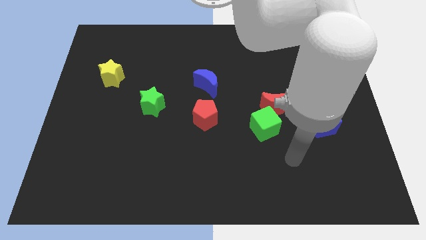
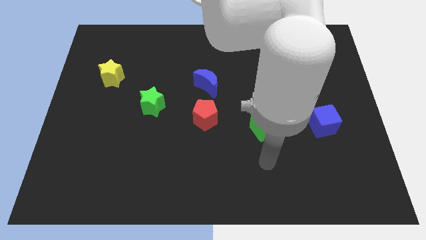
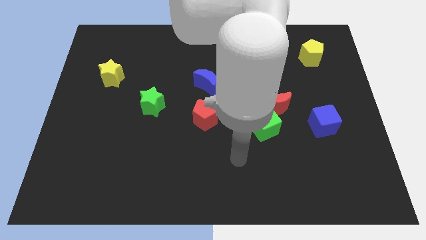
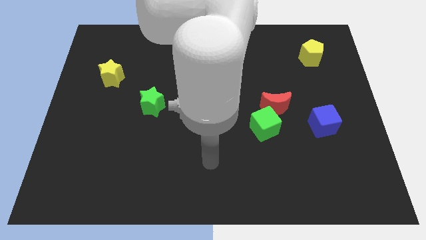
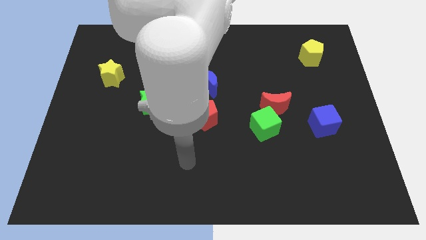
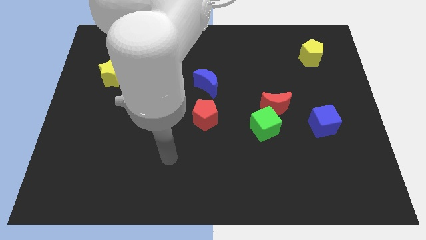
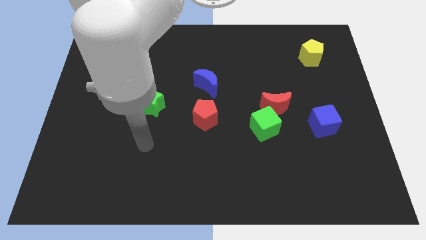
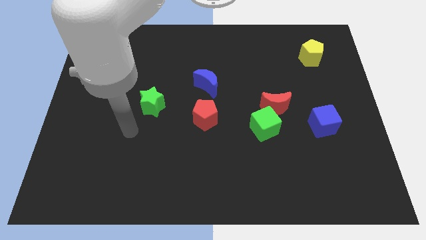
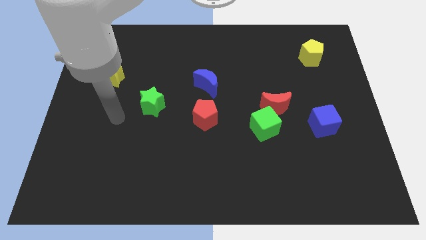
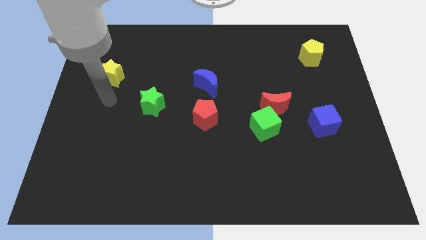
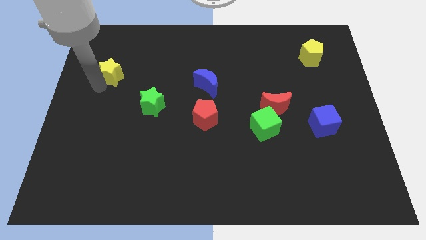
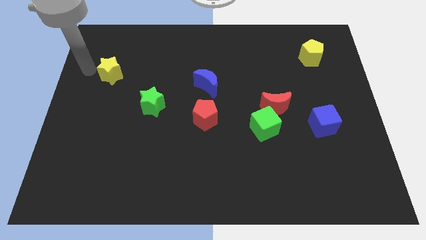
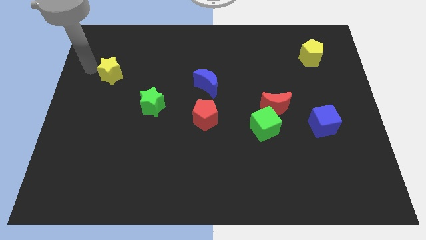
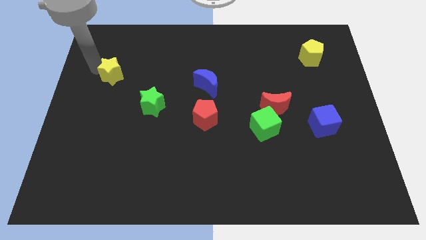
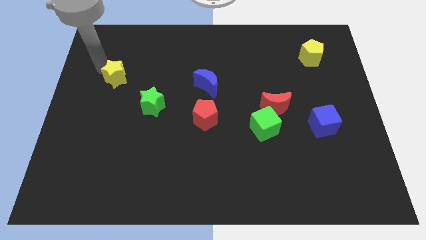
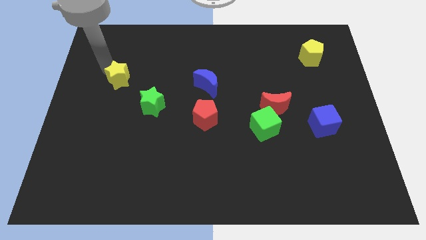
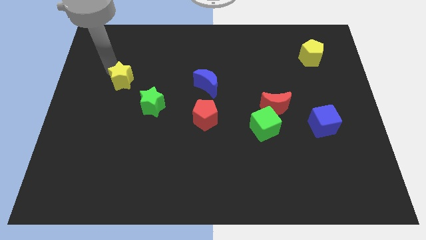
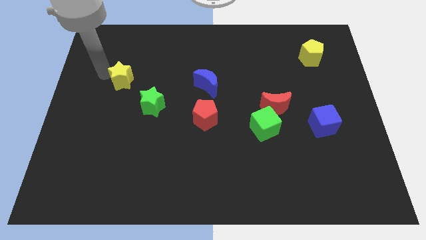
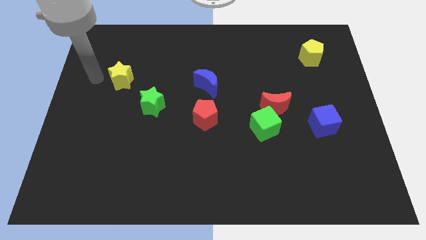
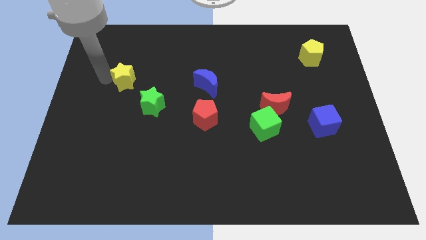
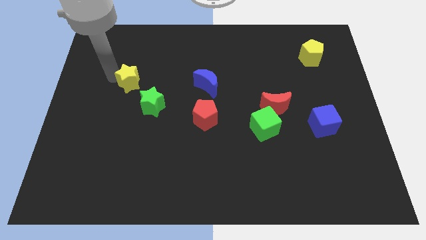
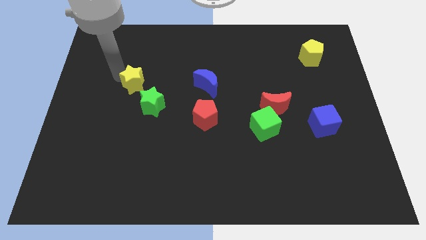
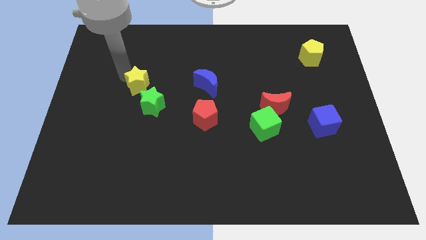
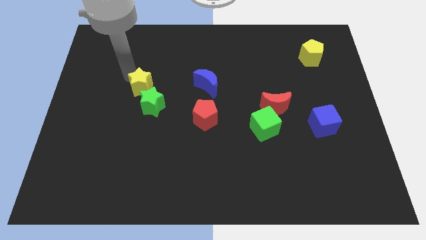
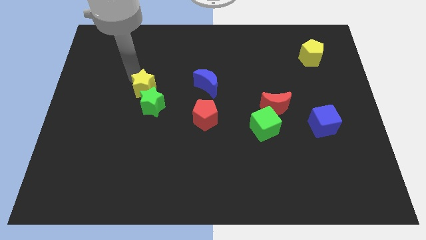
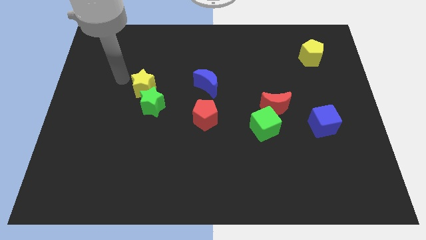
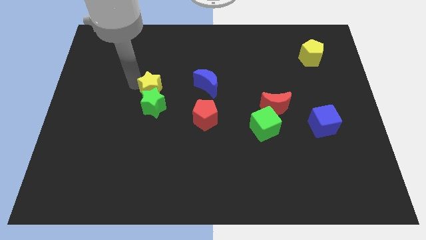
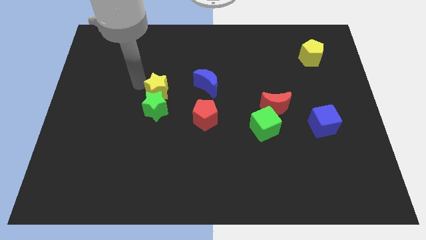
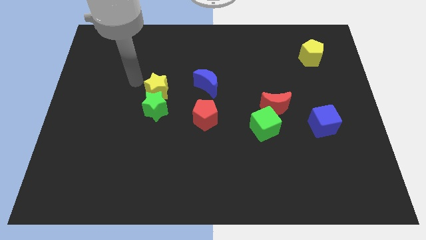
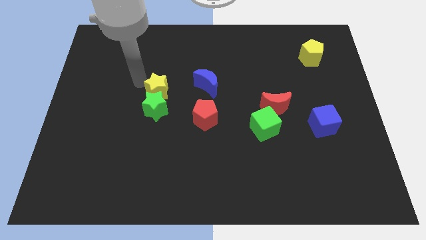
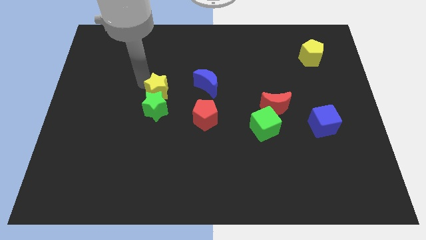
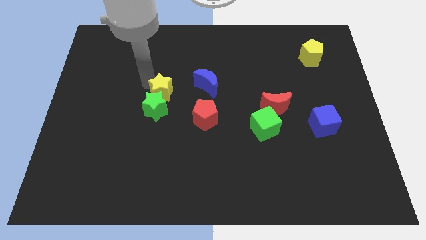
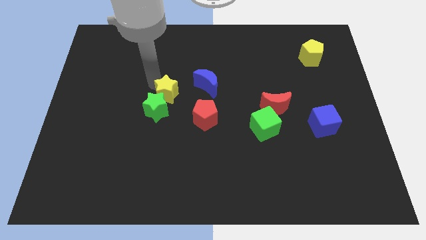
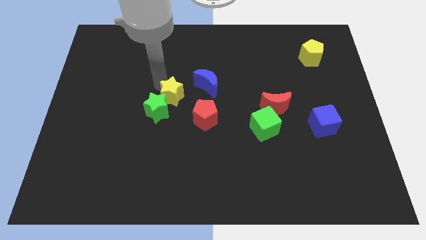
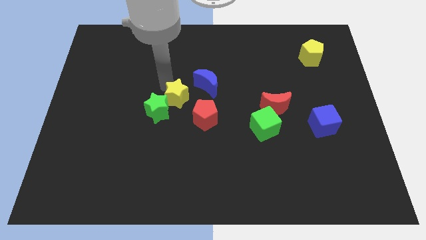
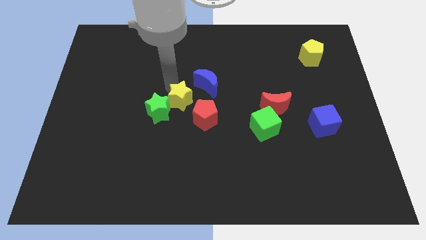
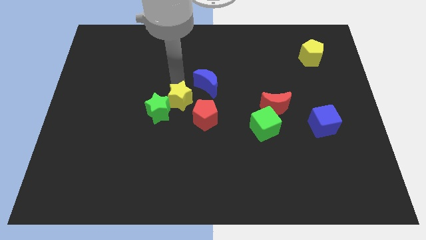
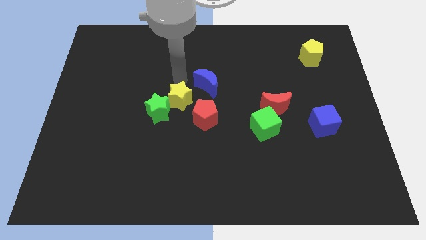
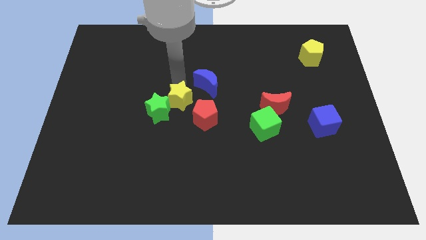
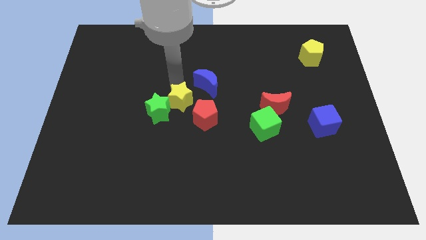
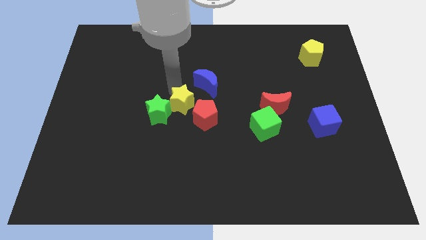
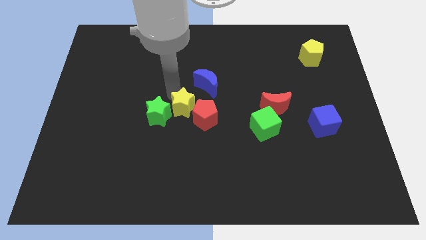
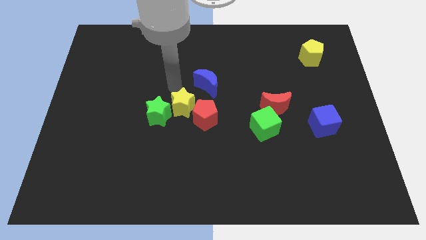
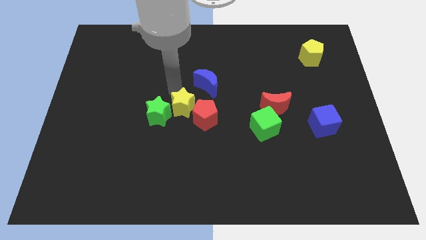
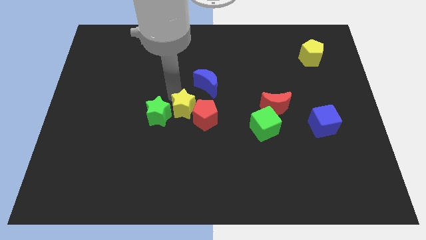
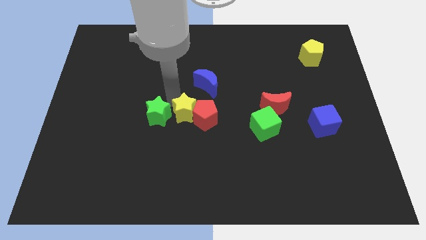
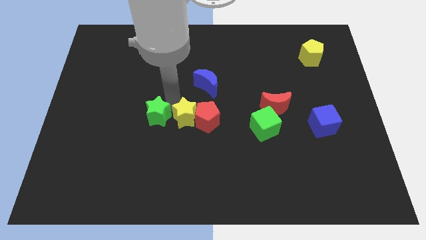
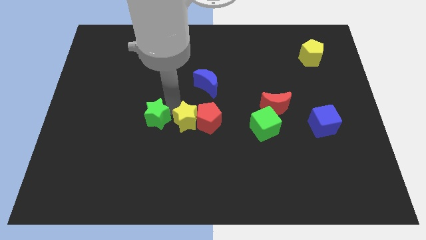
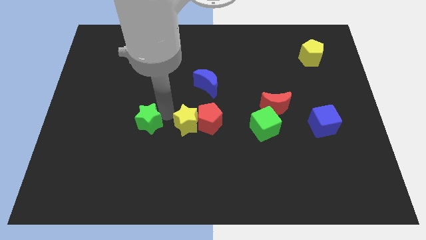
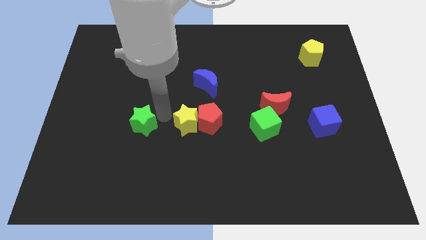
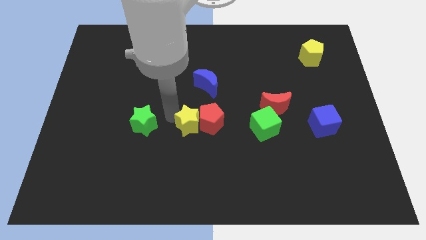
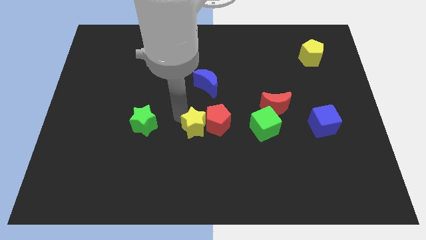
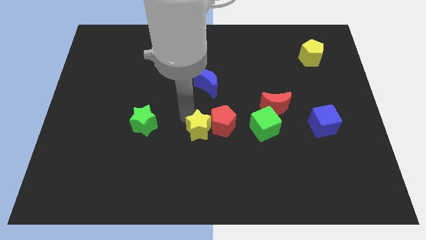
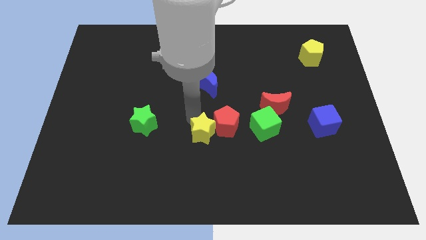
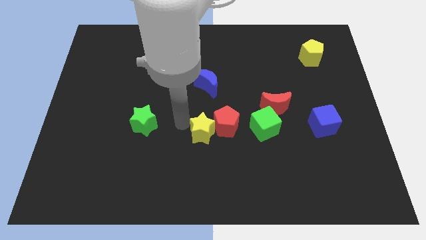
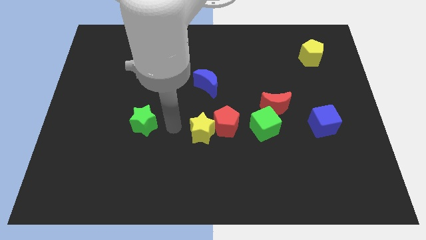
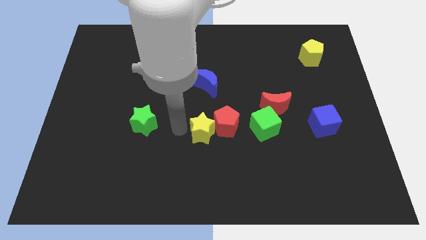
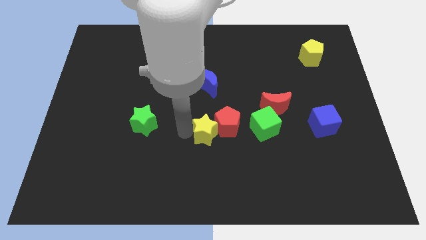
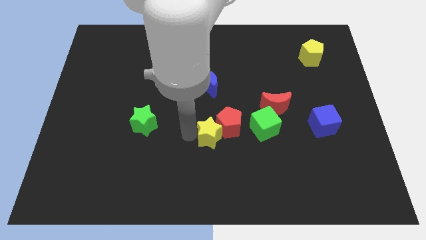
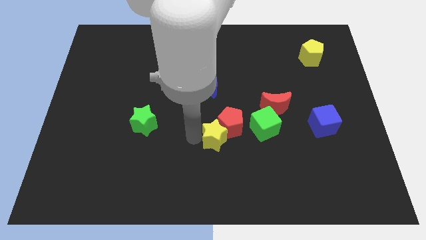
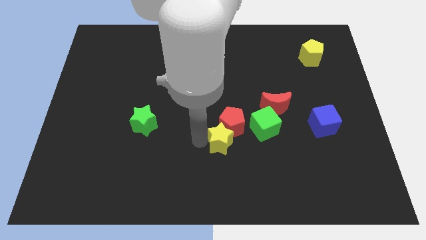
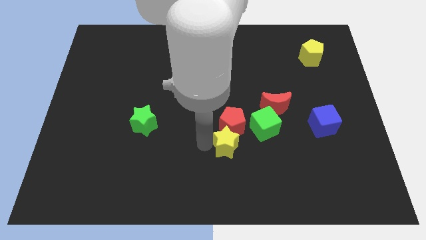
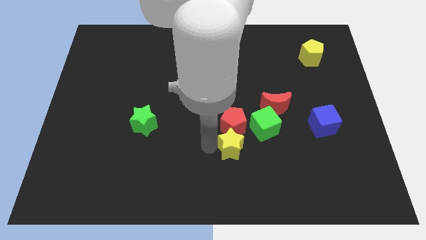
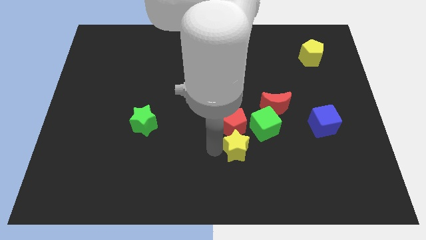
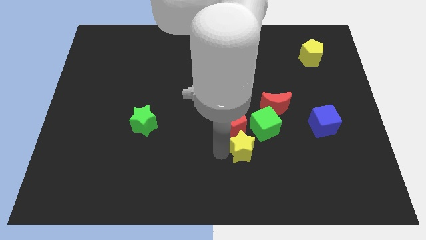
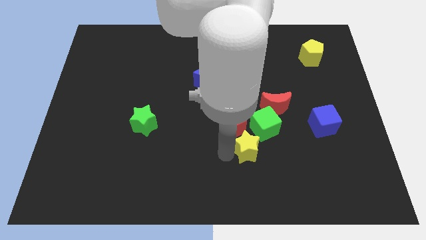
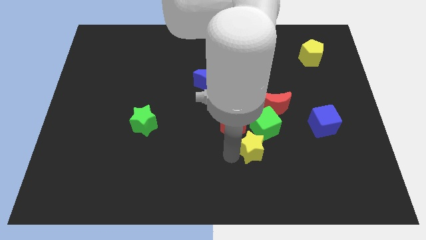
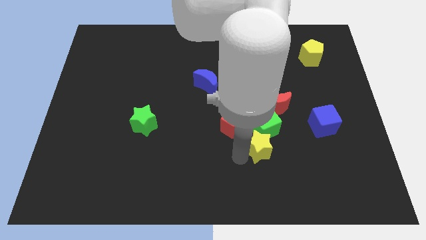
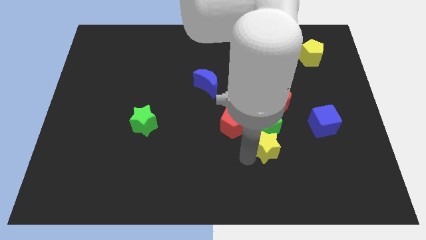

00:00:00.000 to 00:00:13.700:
slide the yellow star to the bottom right of the green cube
